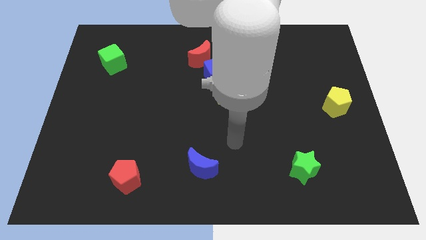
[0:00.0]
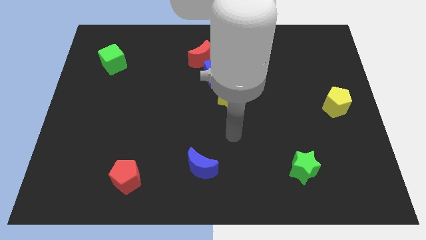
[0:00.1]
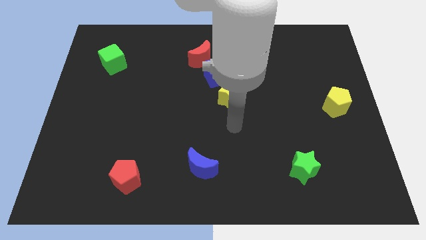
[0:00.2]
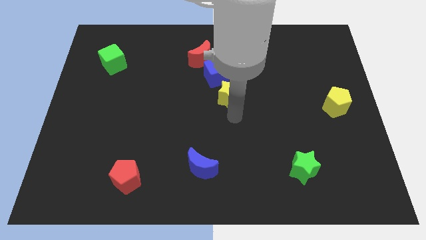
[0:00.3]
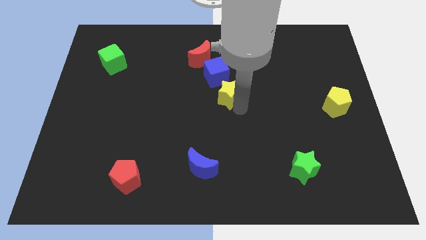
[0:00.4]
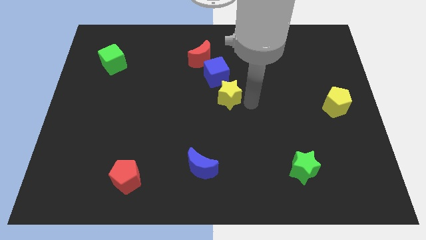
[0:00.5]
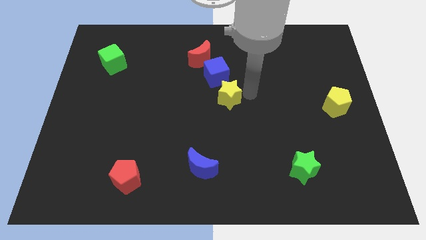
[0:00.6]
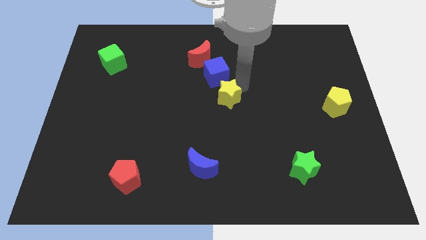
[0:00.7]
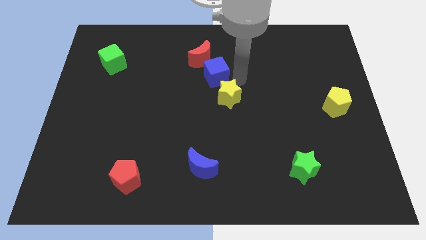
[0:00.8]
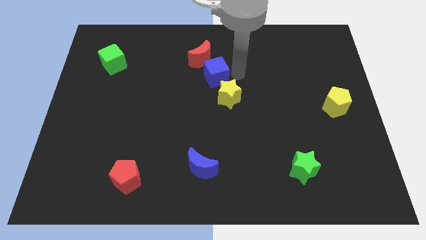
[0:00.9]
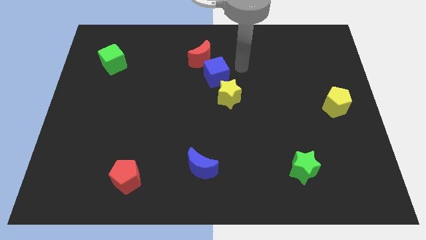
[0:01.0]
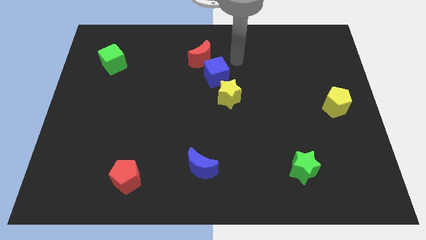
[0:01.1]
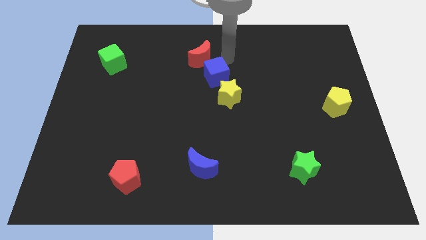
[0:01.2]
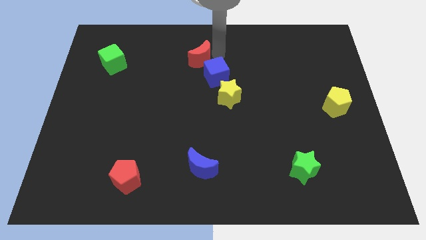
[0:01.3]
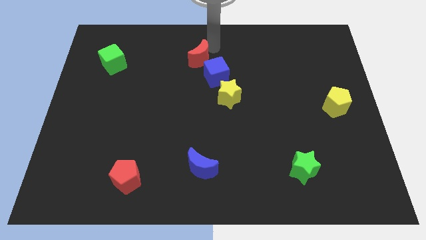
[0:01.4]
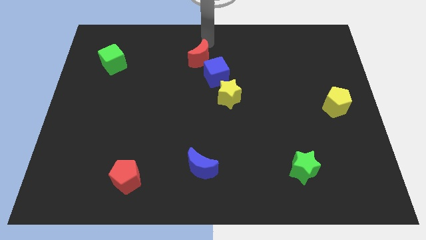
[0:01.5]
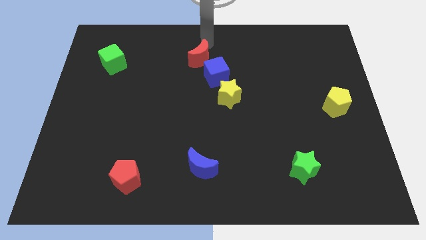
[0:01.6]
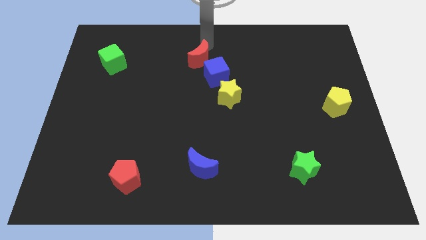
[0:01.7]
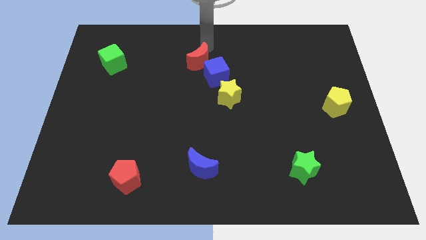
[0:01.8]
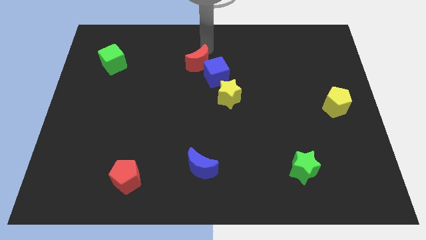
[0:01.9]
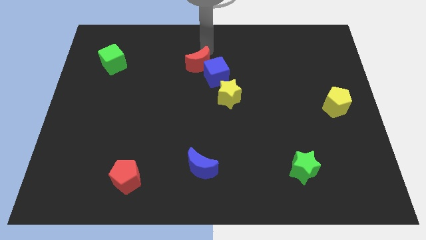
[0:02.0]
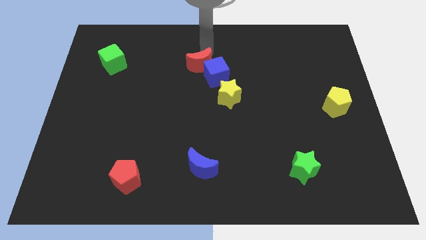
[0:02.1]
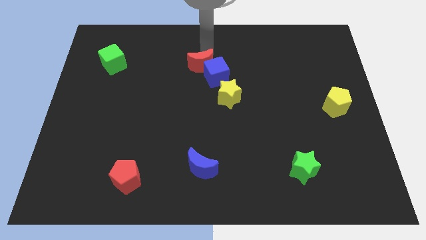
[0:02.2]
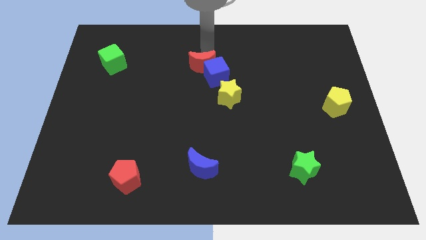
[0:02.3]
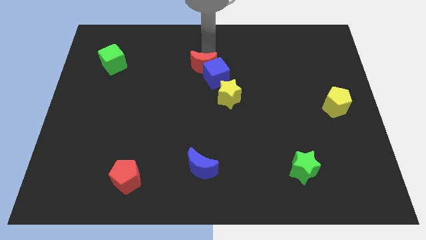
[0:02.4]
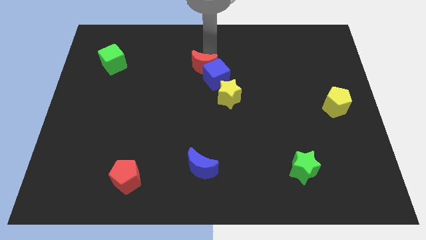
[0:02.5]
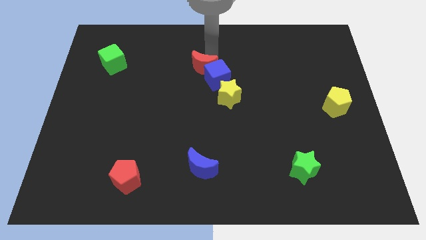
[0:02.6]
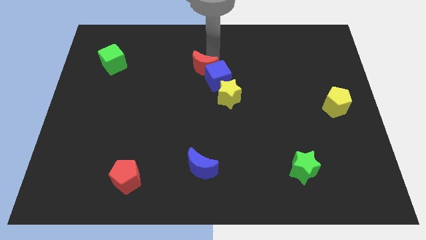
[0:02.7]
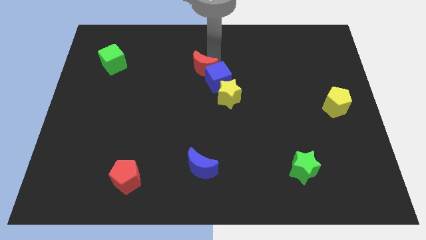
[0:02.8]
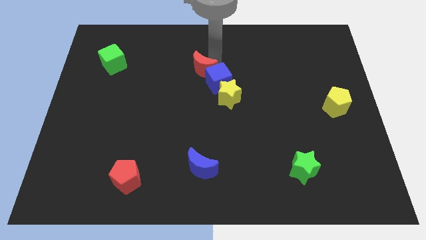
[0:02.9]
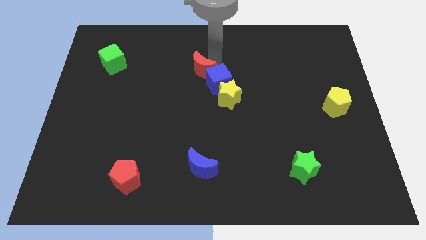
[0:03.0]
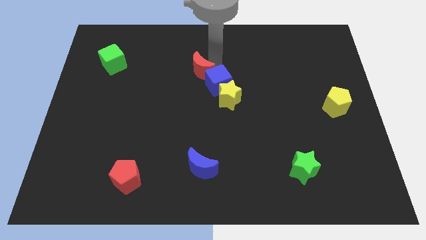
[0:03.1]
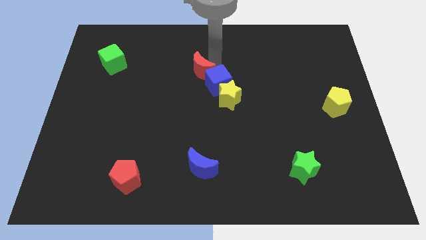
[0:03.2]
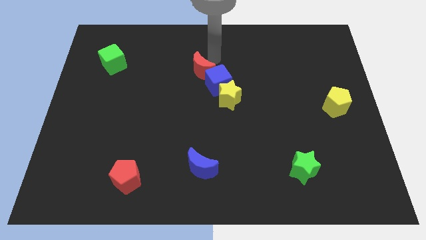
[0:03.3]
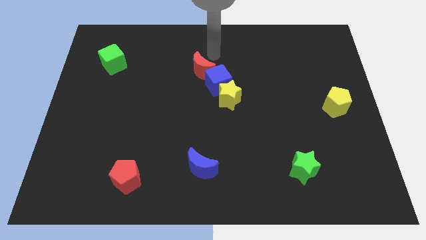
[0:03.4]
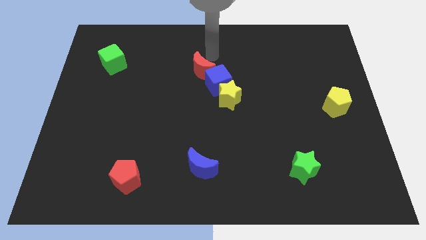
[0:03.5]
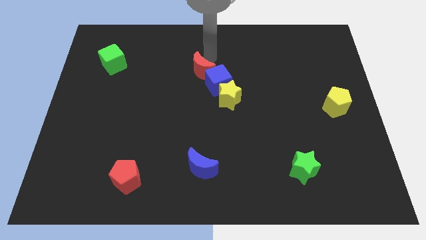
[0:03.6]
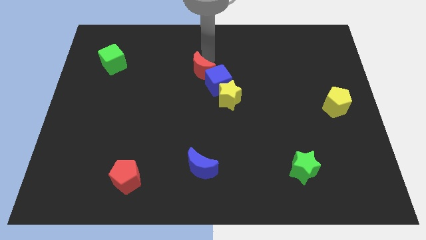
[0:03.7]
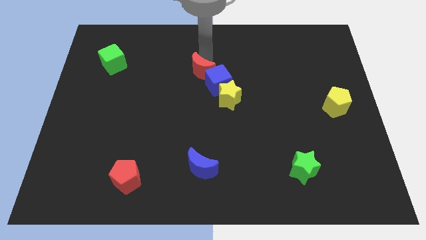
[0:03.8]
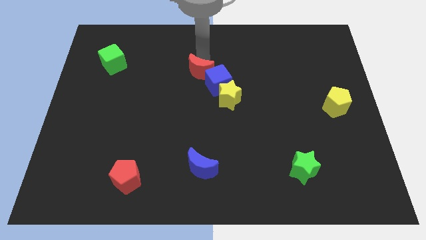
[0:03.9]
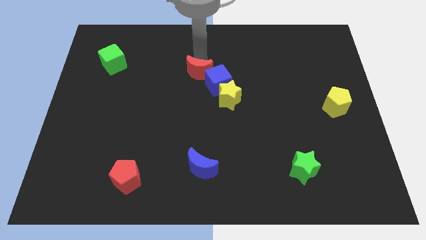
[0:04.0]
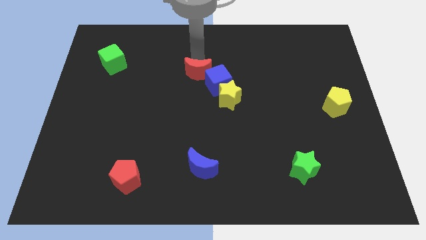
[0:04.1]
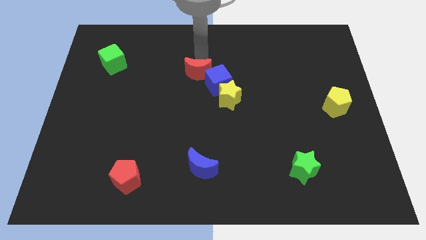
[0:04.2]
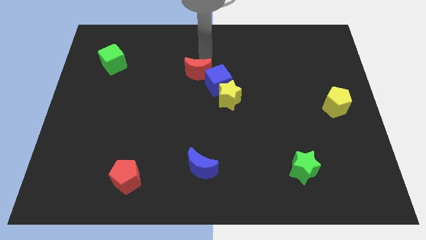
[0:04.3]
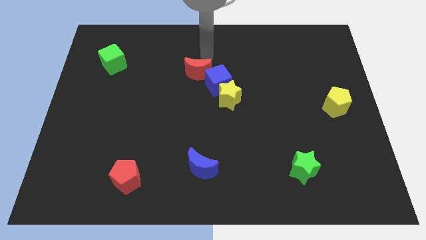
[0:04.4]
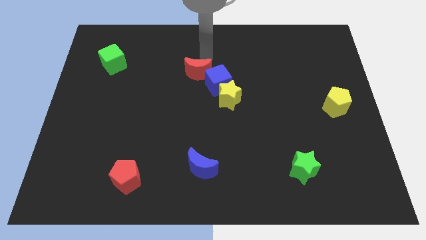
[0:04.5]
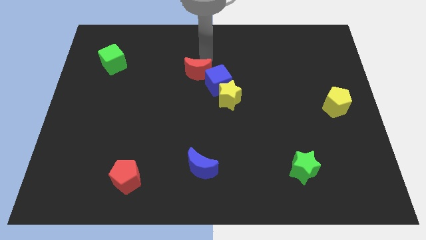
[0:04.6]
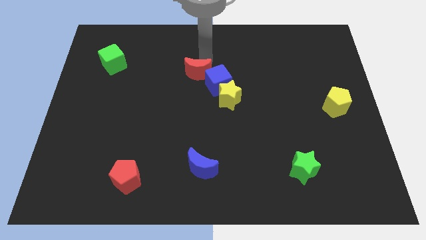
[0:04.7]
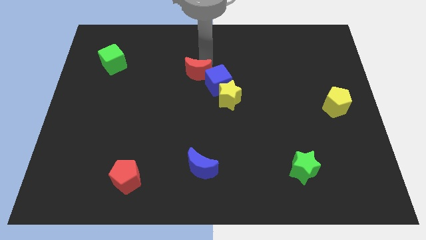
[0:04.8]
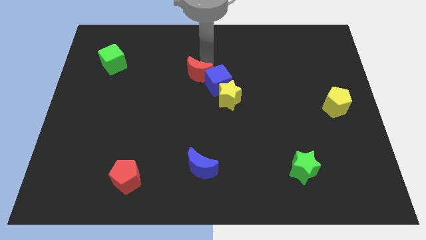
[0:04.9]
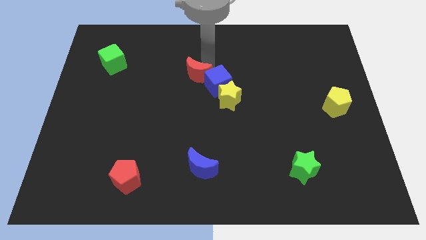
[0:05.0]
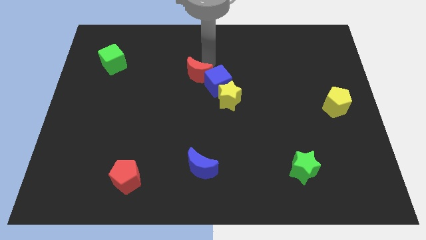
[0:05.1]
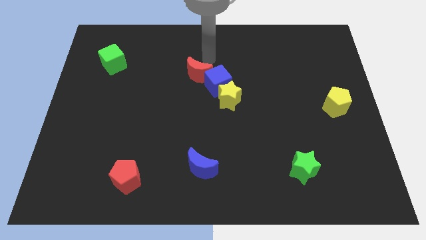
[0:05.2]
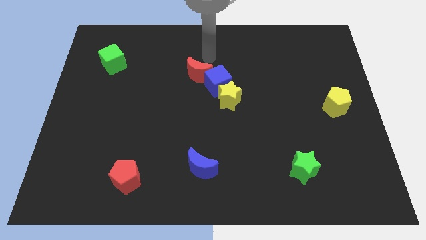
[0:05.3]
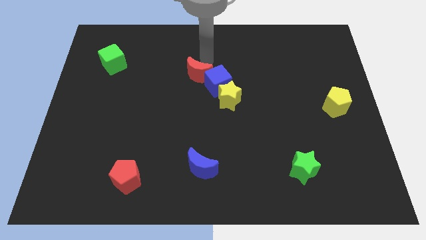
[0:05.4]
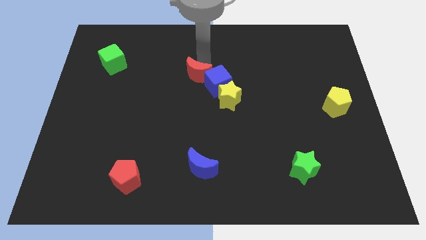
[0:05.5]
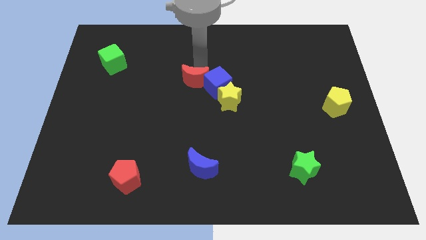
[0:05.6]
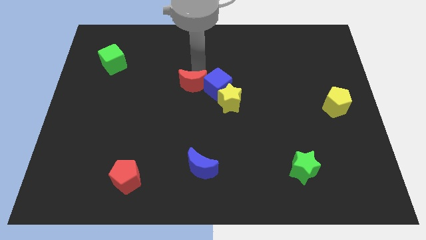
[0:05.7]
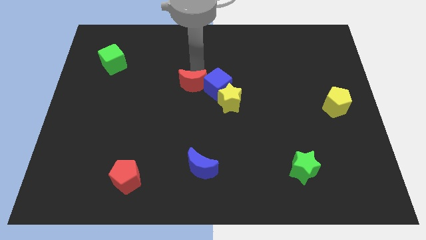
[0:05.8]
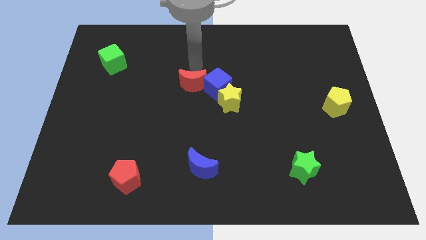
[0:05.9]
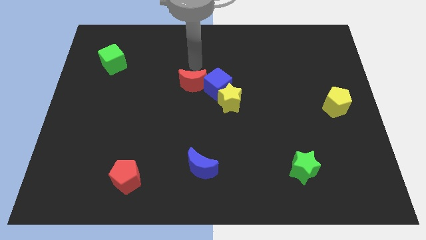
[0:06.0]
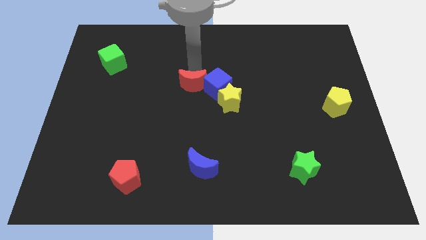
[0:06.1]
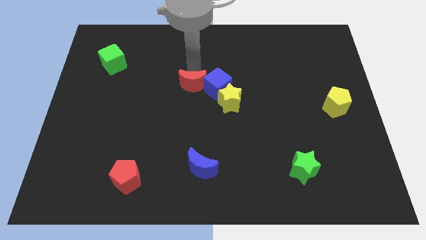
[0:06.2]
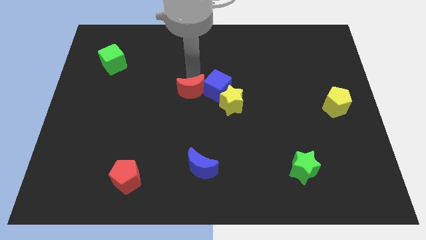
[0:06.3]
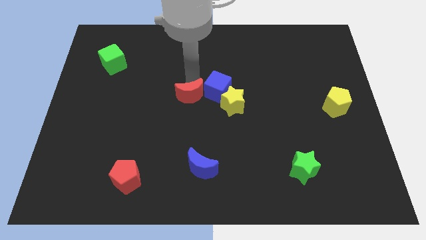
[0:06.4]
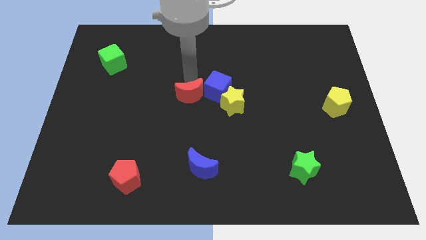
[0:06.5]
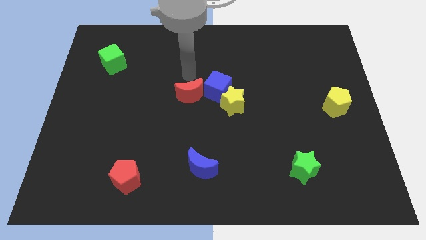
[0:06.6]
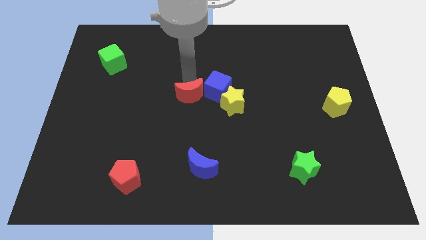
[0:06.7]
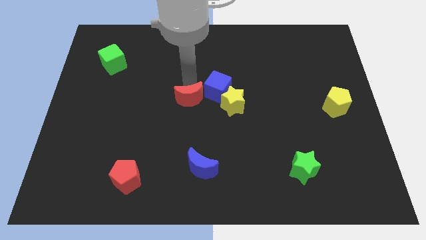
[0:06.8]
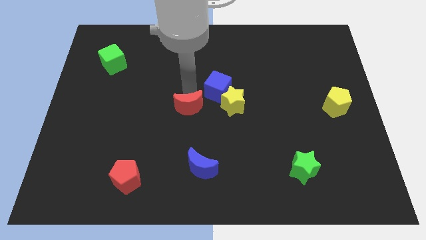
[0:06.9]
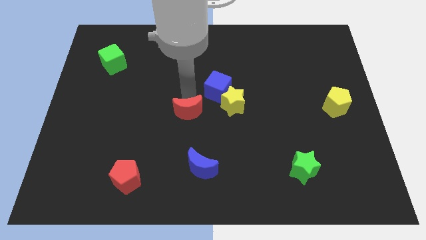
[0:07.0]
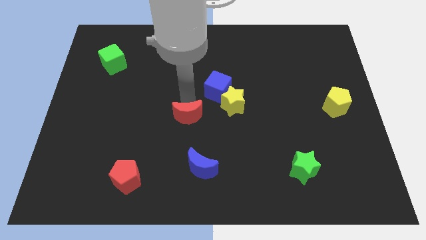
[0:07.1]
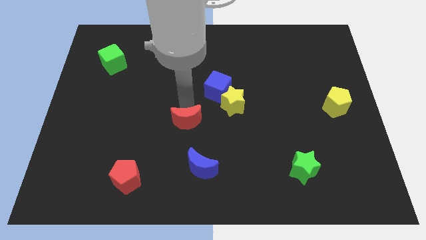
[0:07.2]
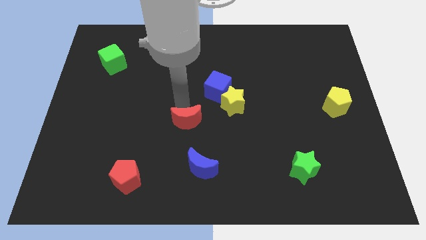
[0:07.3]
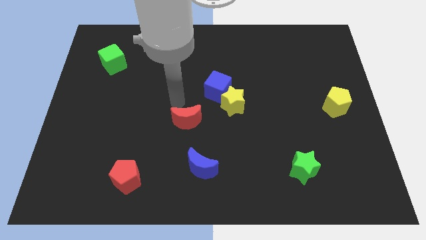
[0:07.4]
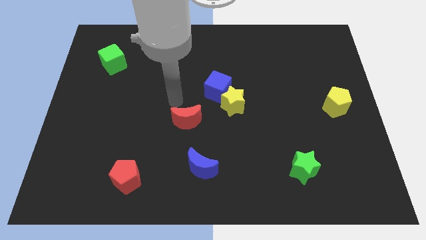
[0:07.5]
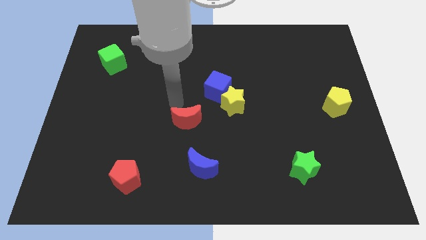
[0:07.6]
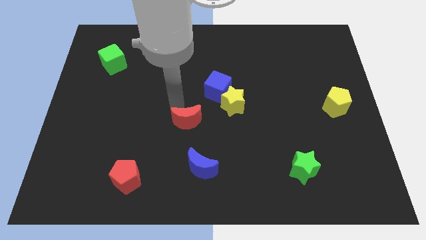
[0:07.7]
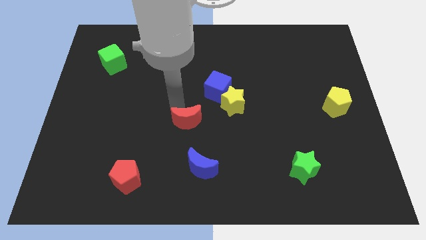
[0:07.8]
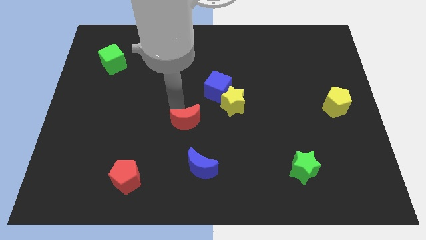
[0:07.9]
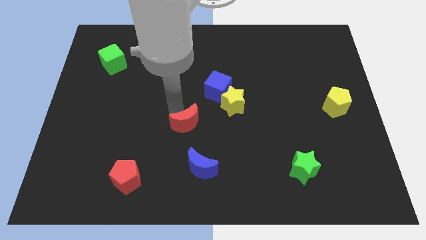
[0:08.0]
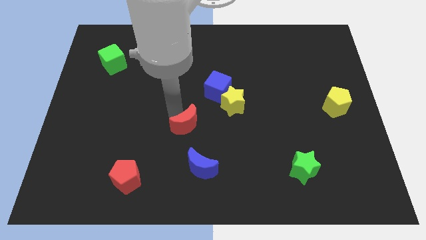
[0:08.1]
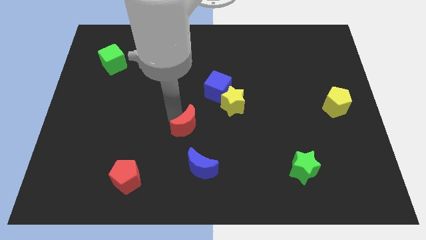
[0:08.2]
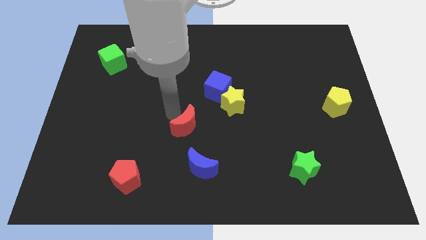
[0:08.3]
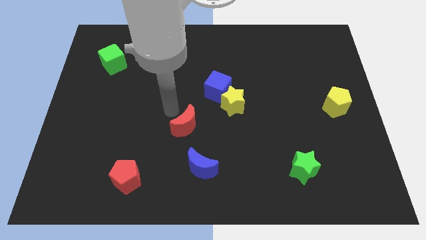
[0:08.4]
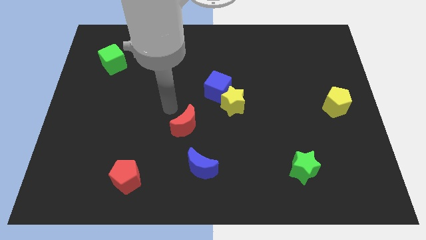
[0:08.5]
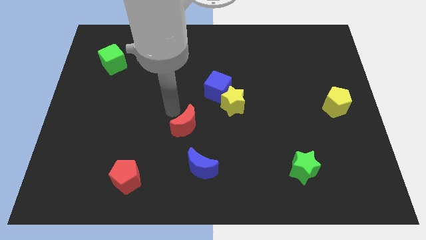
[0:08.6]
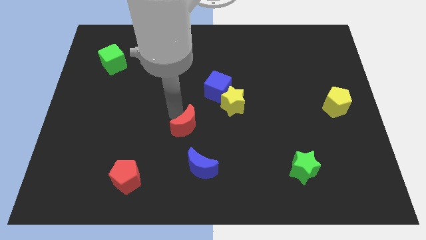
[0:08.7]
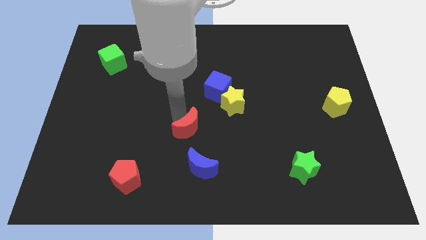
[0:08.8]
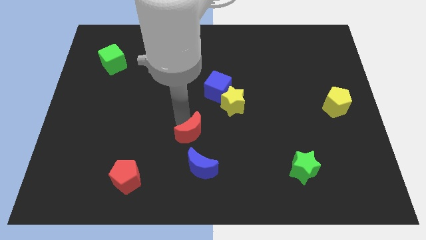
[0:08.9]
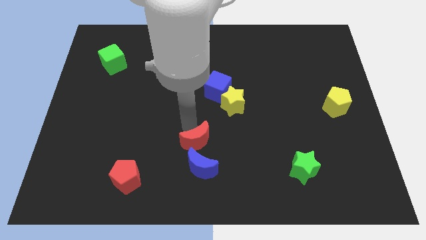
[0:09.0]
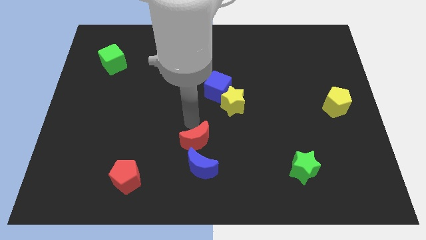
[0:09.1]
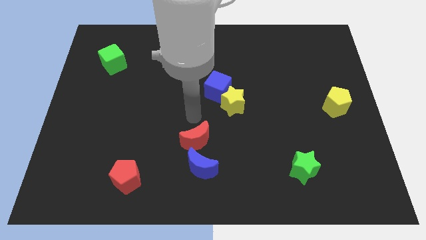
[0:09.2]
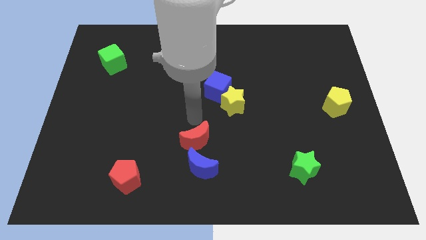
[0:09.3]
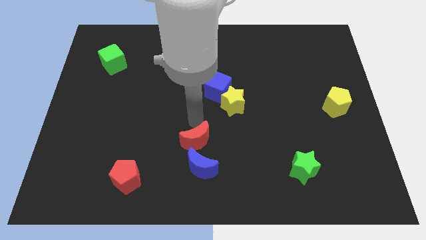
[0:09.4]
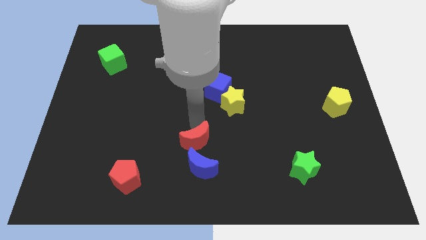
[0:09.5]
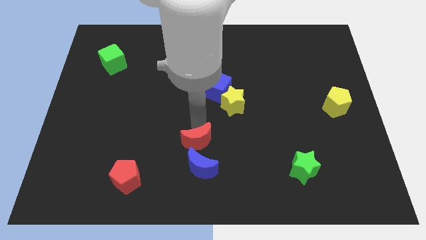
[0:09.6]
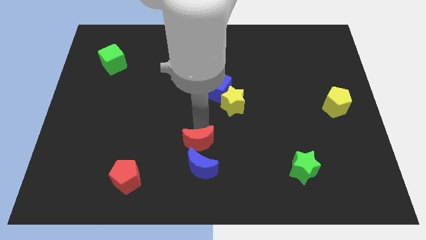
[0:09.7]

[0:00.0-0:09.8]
slide the red moon to the blue moon
